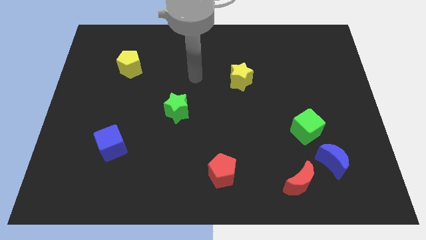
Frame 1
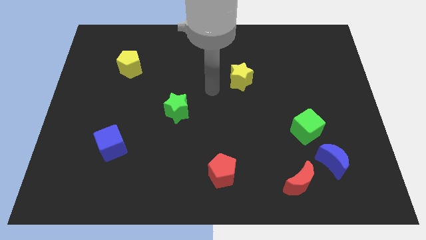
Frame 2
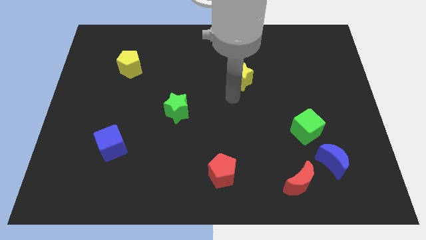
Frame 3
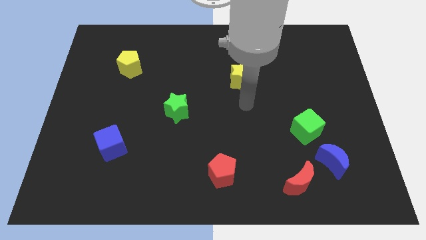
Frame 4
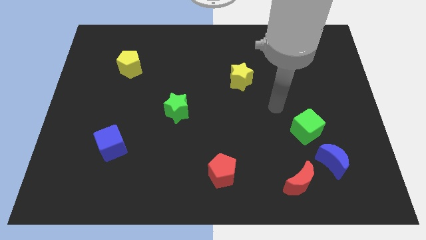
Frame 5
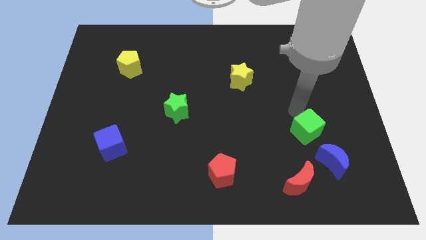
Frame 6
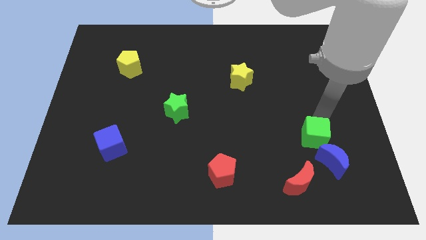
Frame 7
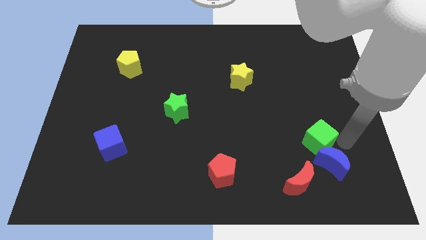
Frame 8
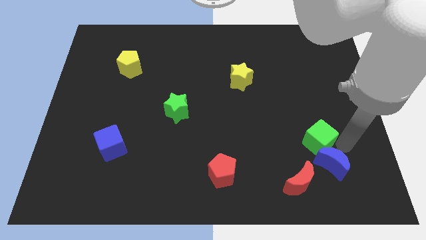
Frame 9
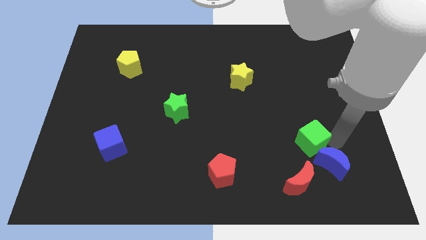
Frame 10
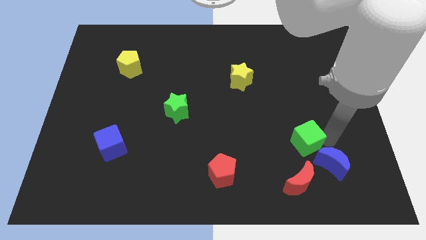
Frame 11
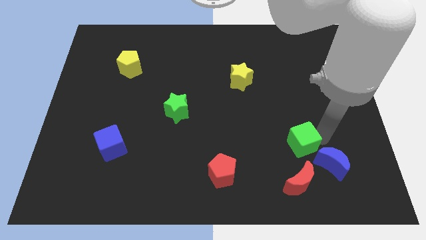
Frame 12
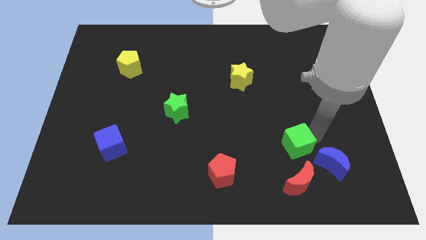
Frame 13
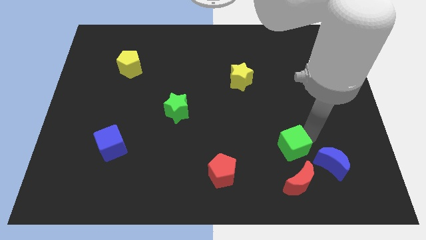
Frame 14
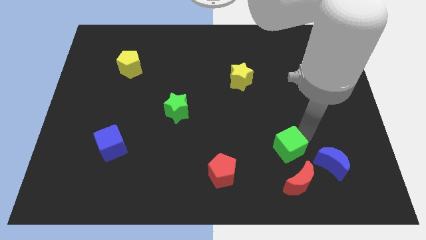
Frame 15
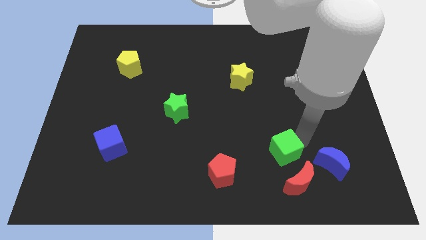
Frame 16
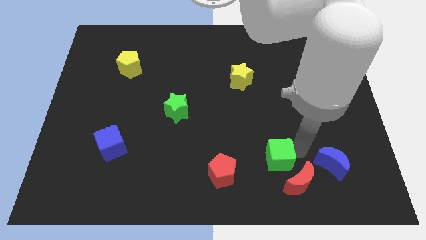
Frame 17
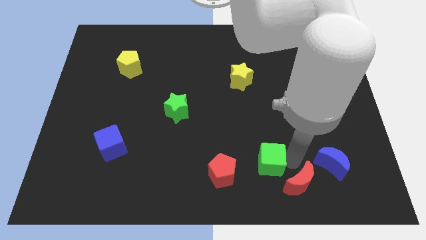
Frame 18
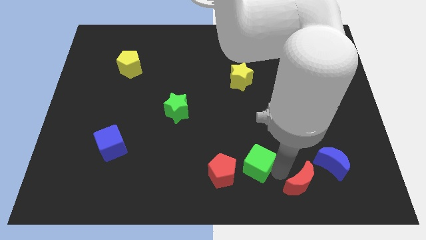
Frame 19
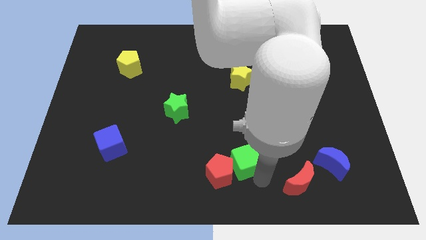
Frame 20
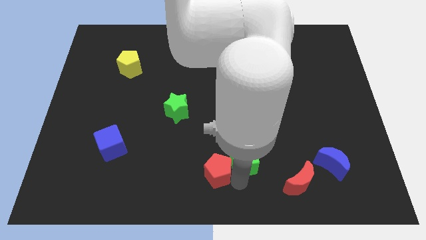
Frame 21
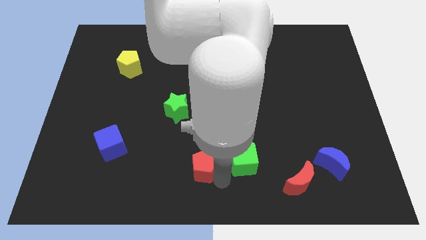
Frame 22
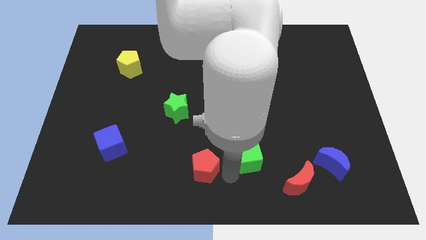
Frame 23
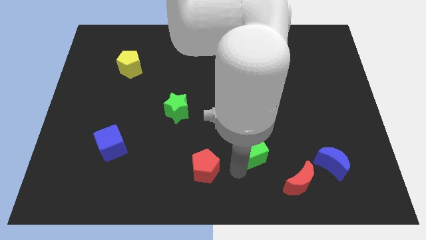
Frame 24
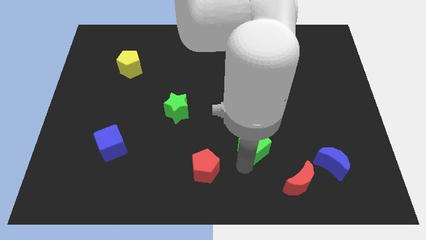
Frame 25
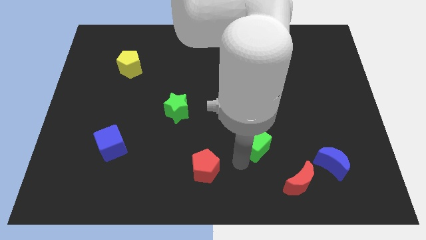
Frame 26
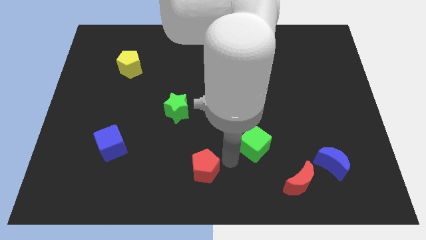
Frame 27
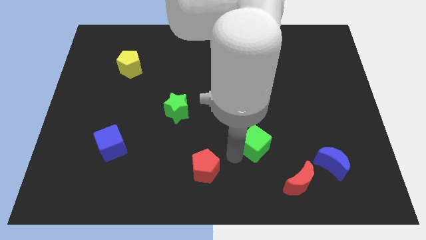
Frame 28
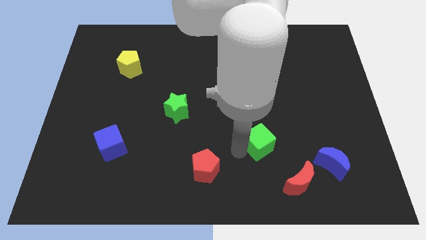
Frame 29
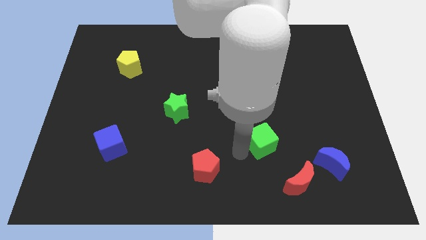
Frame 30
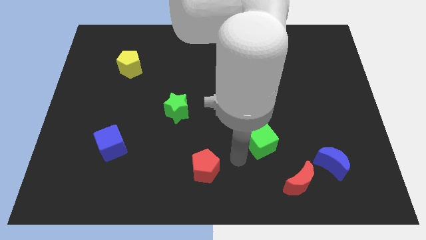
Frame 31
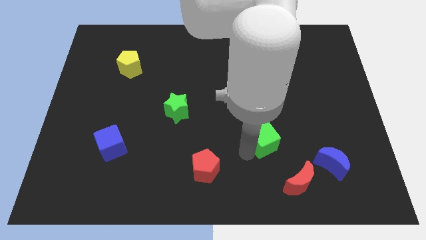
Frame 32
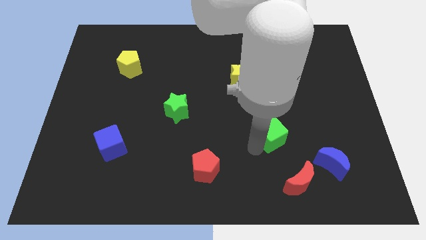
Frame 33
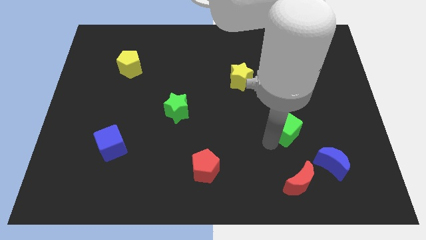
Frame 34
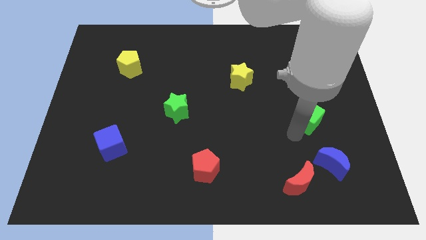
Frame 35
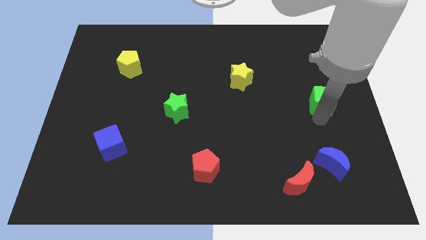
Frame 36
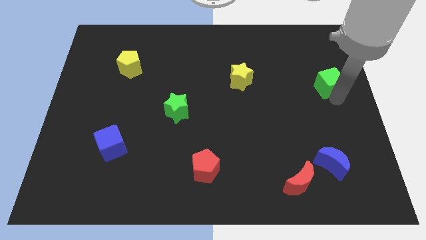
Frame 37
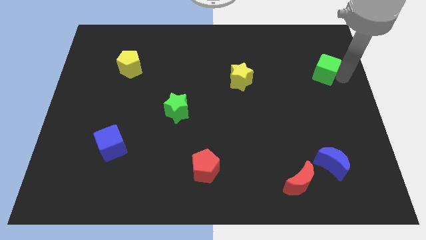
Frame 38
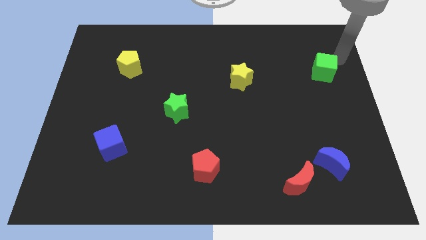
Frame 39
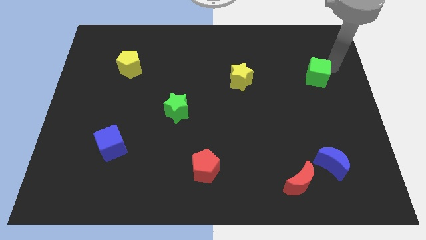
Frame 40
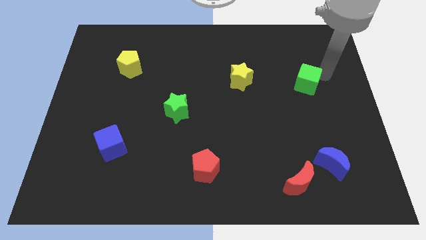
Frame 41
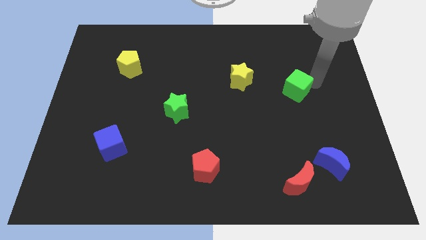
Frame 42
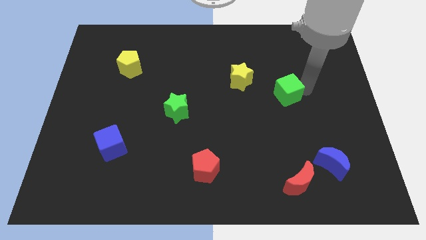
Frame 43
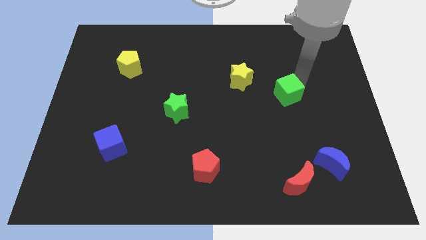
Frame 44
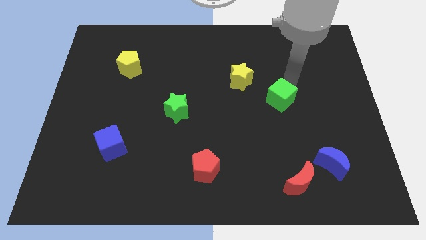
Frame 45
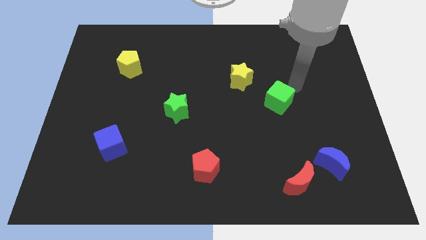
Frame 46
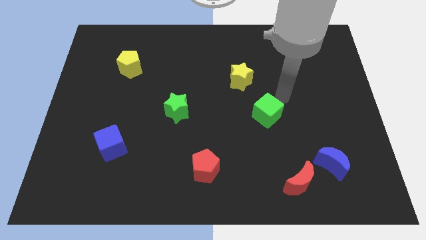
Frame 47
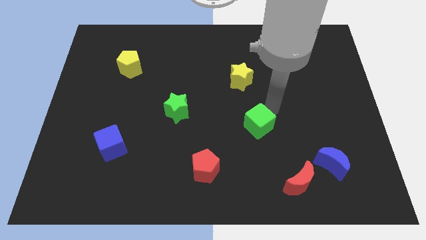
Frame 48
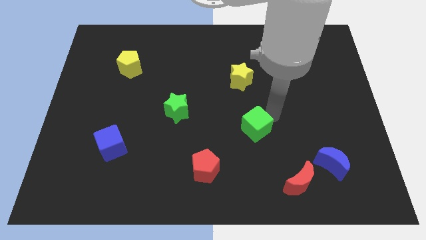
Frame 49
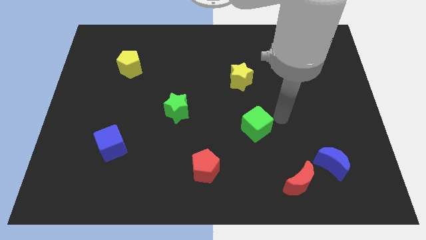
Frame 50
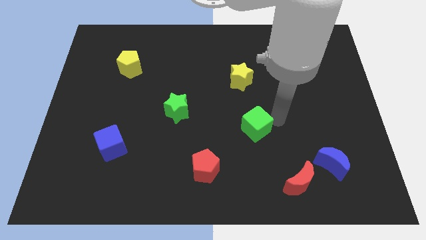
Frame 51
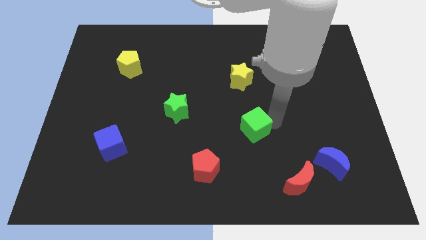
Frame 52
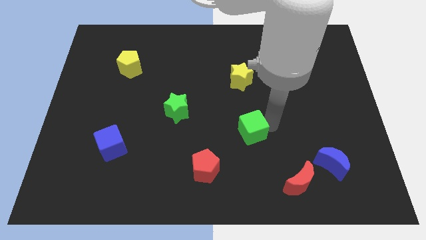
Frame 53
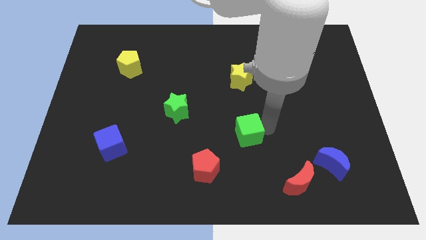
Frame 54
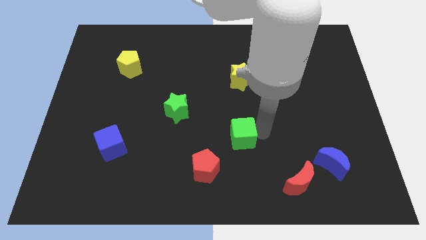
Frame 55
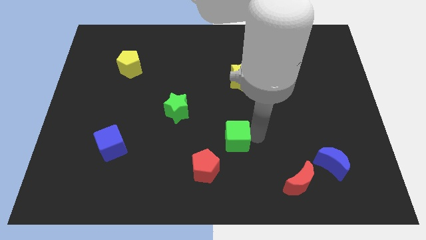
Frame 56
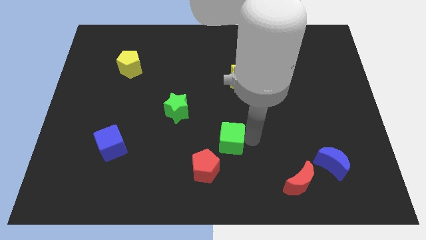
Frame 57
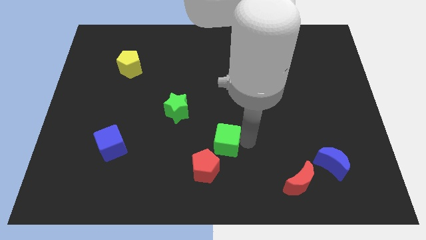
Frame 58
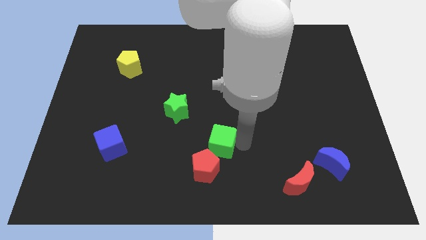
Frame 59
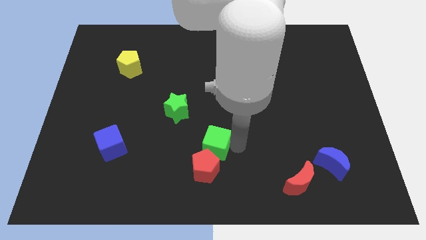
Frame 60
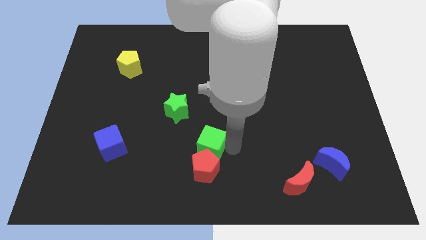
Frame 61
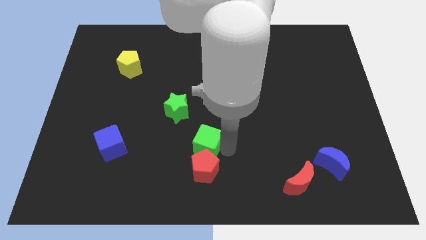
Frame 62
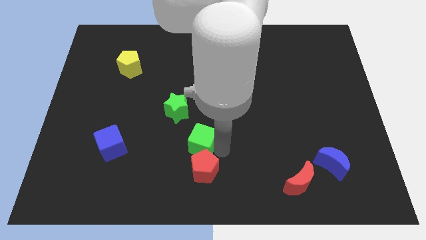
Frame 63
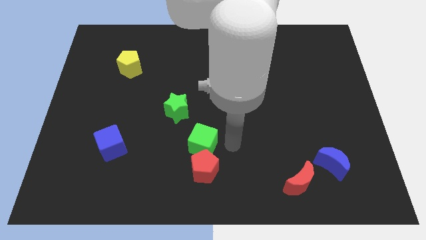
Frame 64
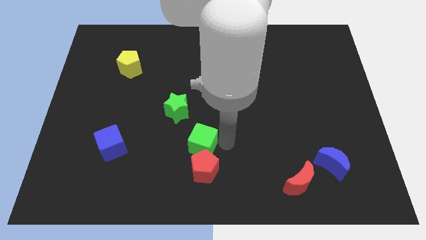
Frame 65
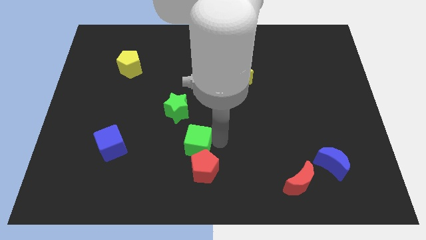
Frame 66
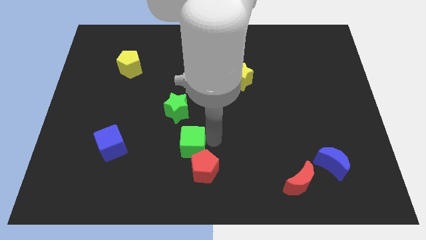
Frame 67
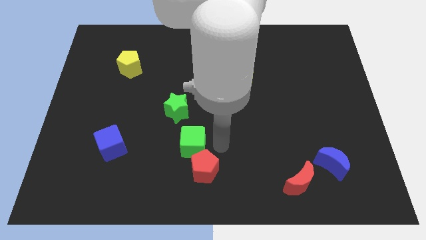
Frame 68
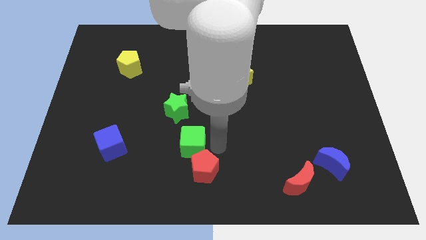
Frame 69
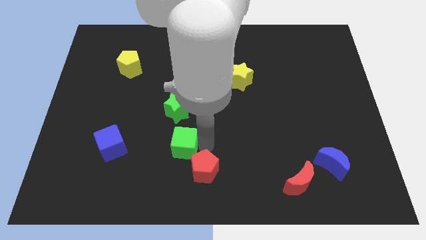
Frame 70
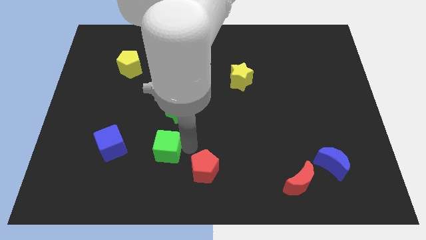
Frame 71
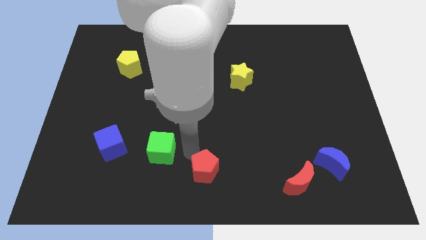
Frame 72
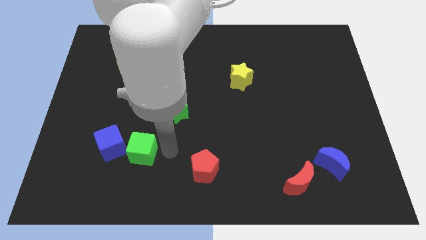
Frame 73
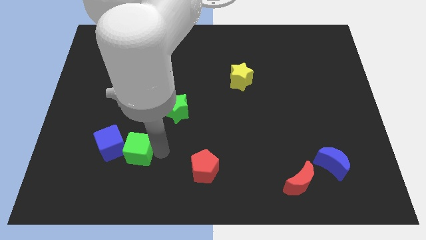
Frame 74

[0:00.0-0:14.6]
slide the green cube to the blue cube
